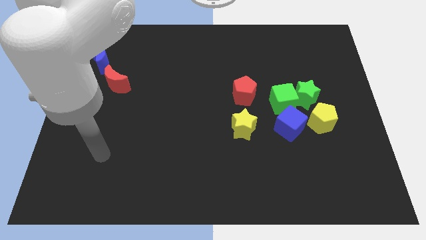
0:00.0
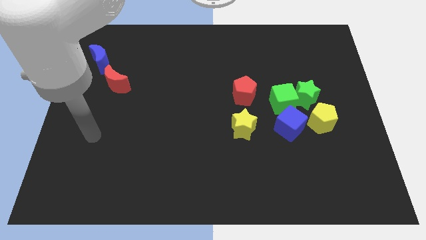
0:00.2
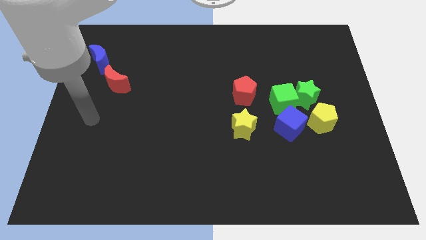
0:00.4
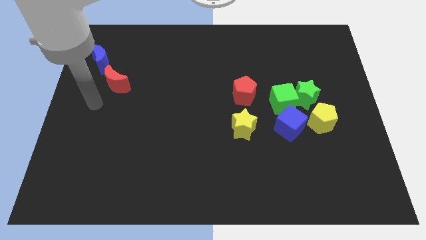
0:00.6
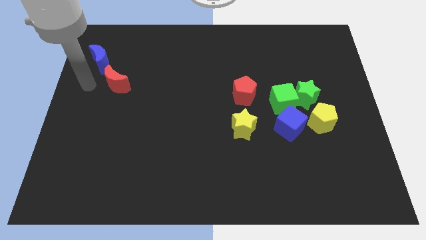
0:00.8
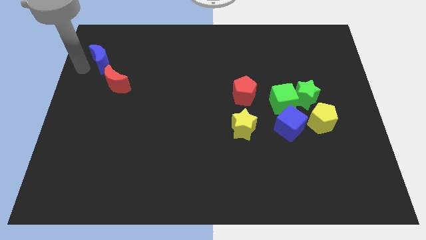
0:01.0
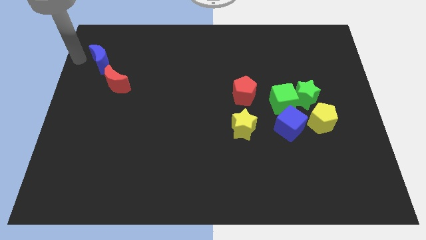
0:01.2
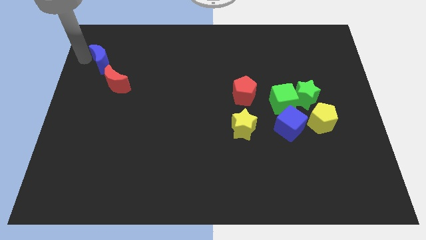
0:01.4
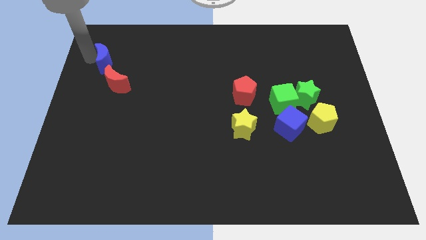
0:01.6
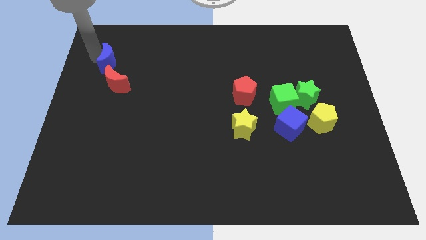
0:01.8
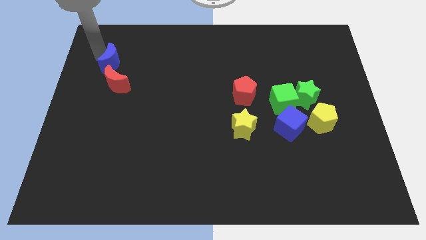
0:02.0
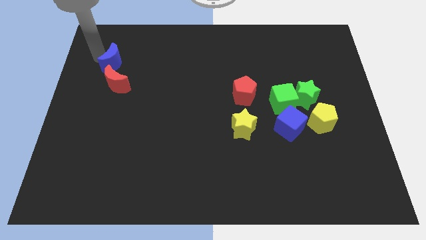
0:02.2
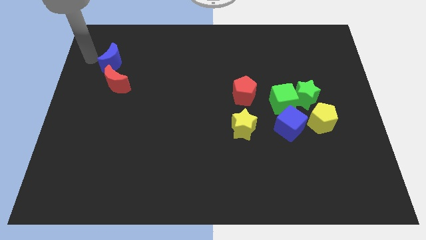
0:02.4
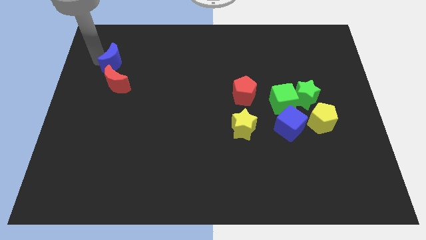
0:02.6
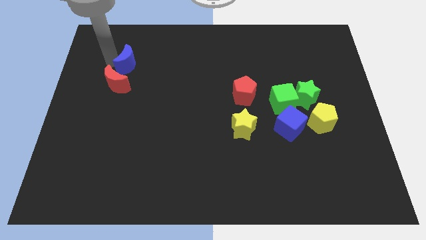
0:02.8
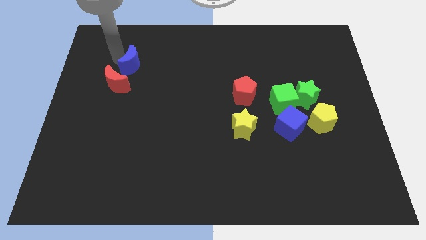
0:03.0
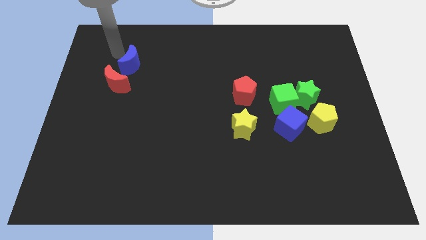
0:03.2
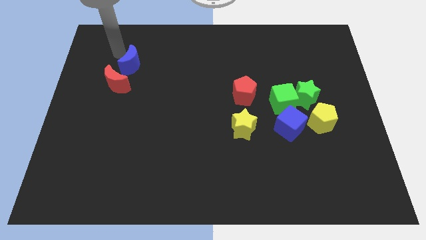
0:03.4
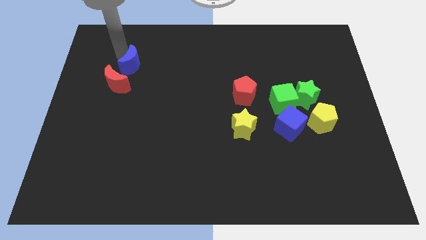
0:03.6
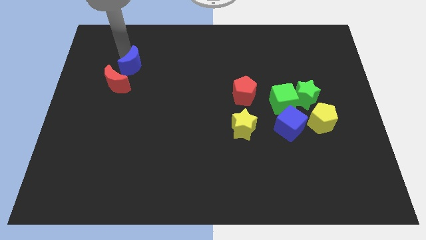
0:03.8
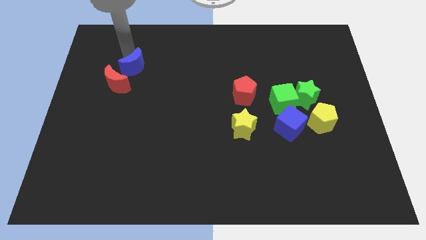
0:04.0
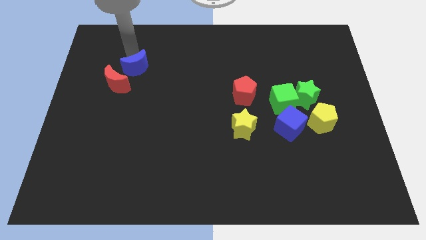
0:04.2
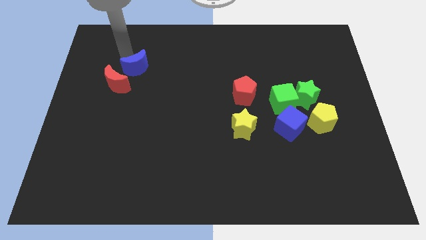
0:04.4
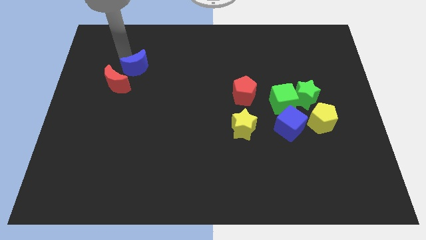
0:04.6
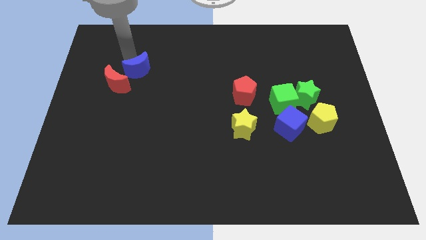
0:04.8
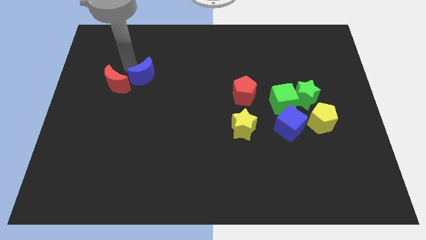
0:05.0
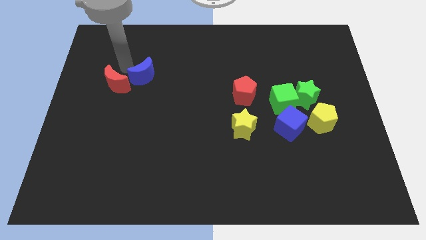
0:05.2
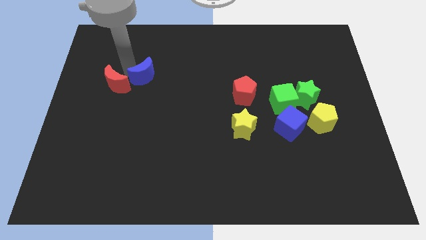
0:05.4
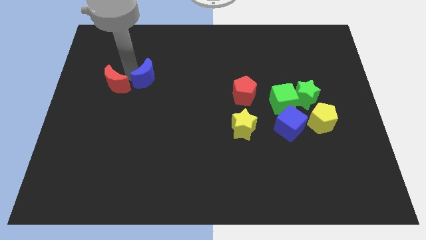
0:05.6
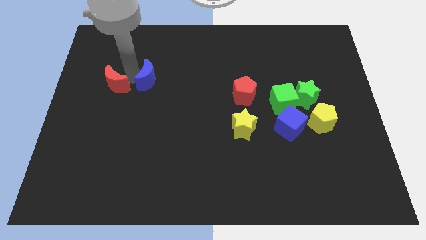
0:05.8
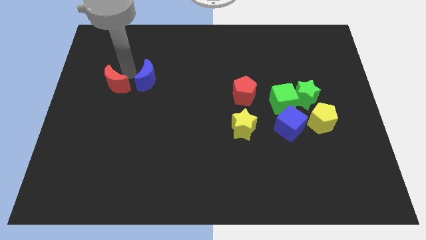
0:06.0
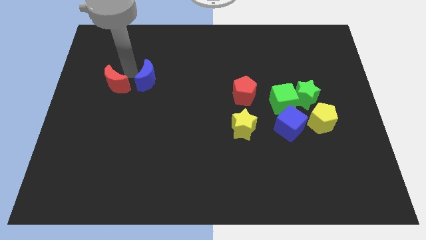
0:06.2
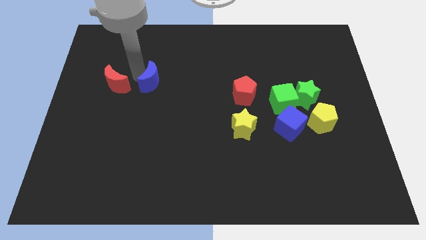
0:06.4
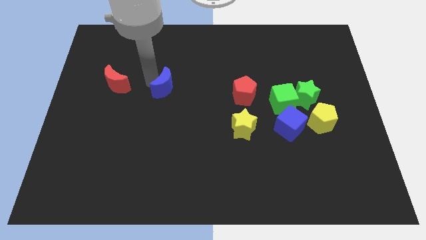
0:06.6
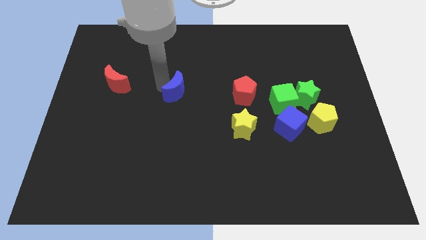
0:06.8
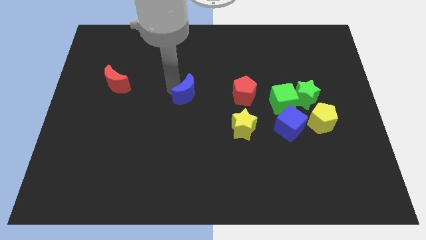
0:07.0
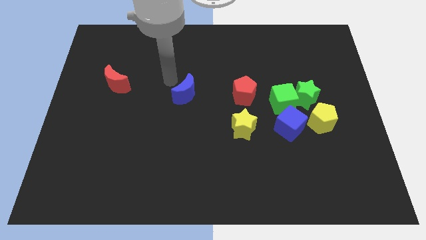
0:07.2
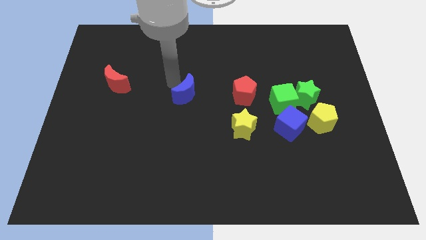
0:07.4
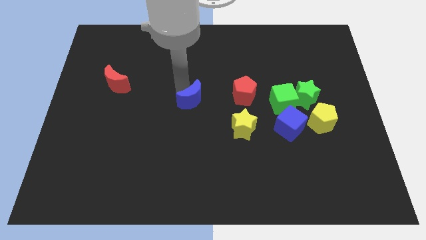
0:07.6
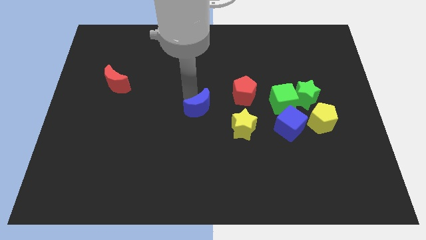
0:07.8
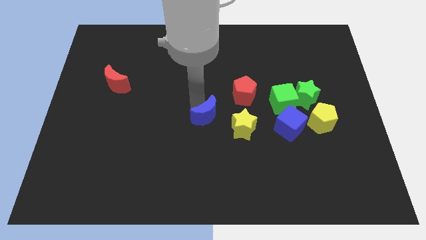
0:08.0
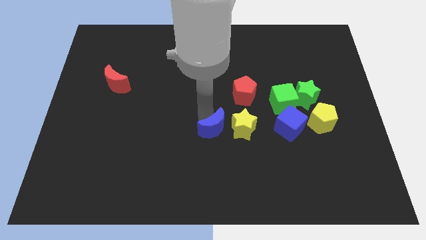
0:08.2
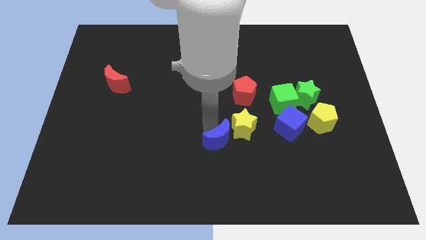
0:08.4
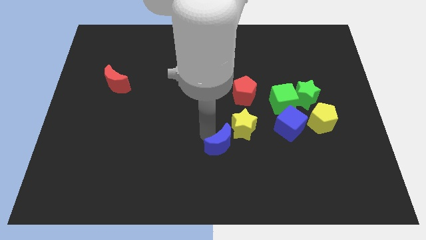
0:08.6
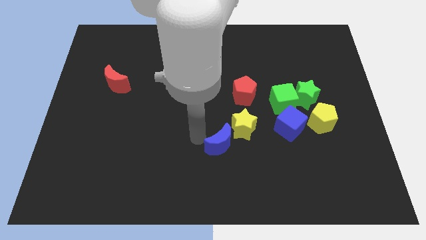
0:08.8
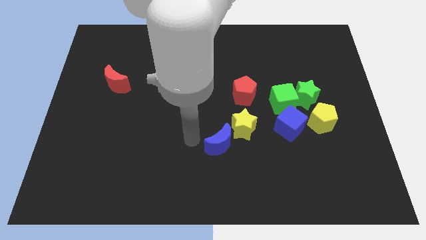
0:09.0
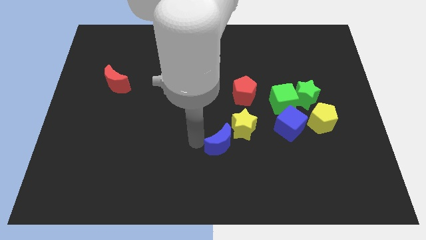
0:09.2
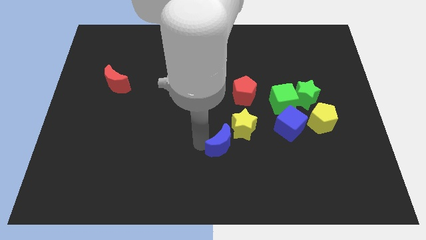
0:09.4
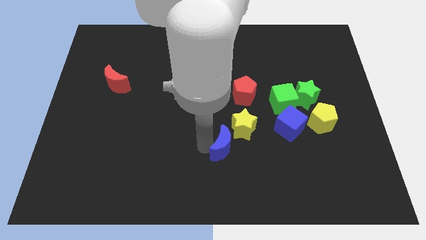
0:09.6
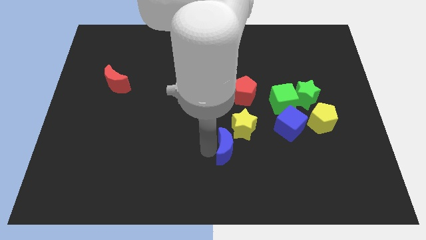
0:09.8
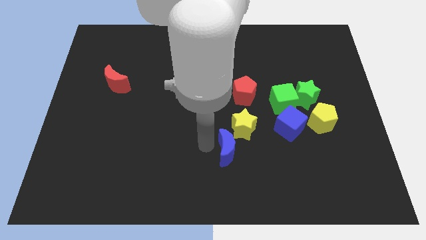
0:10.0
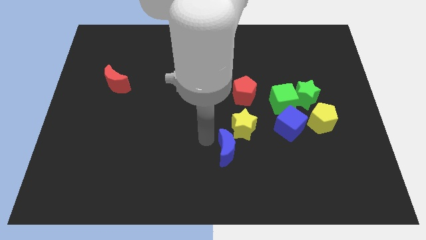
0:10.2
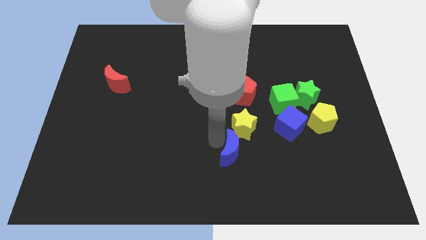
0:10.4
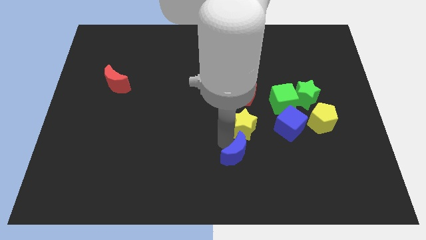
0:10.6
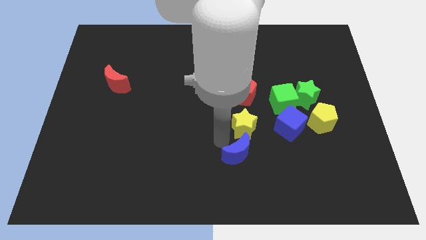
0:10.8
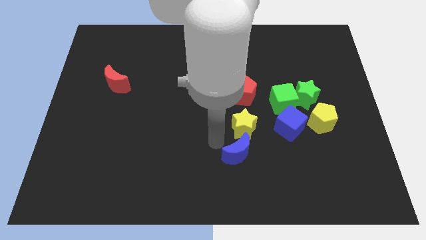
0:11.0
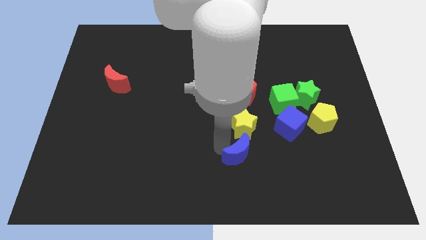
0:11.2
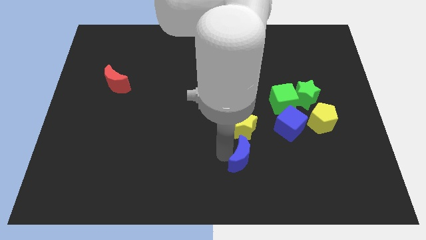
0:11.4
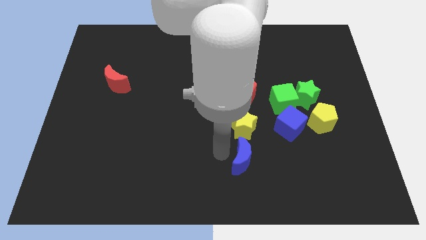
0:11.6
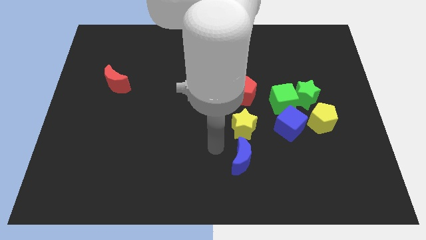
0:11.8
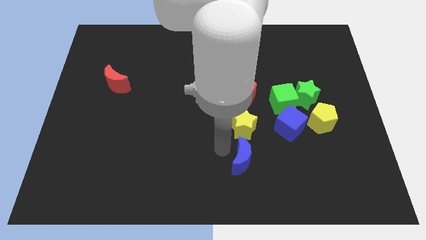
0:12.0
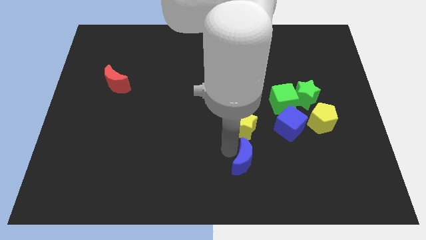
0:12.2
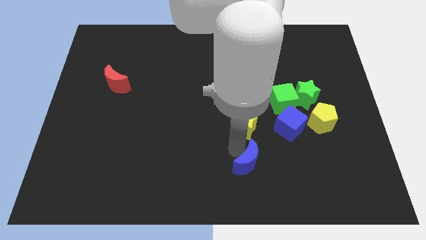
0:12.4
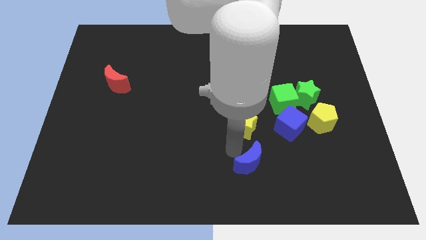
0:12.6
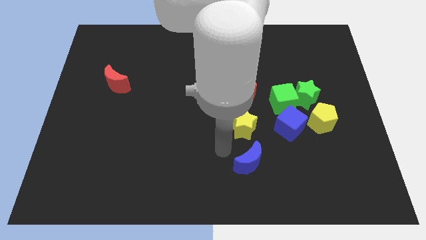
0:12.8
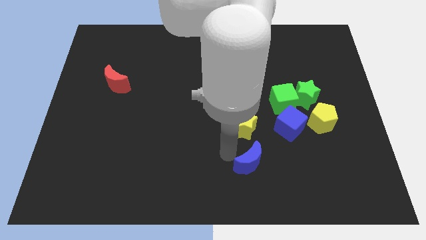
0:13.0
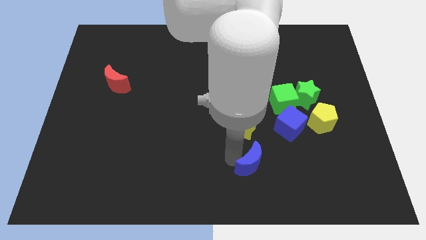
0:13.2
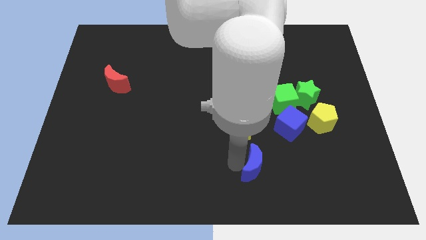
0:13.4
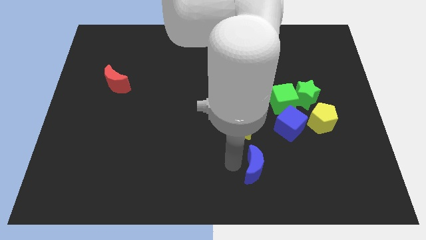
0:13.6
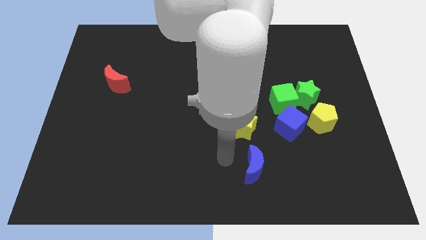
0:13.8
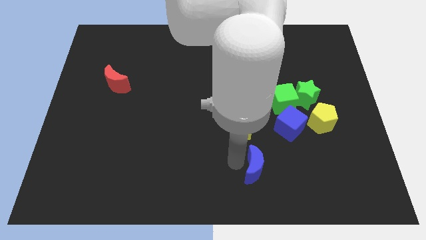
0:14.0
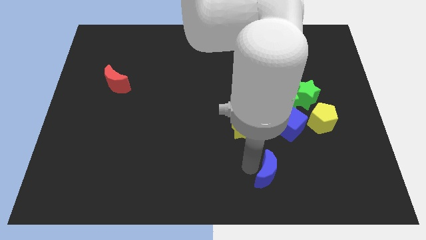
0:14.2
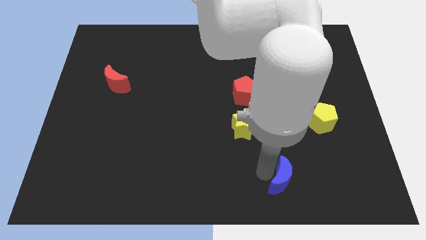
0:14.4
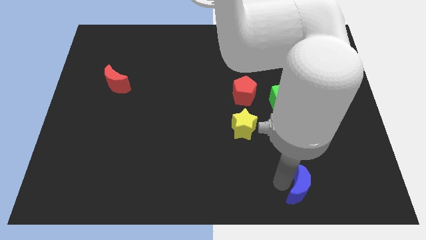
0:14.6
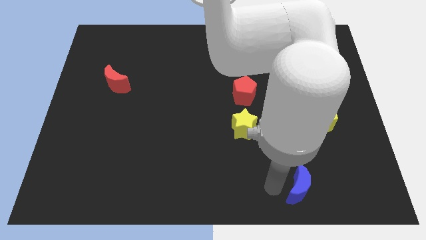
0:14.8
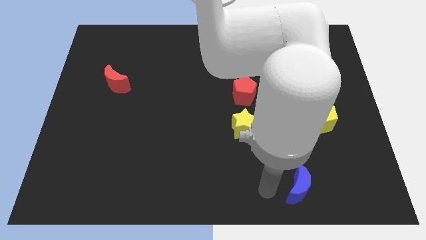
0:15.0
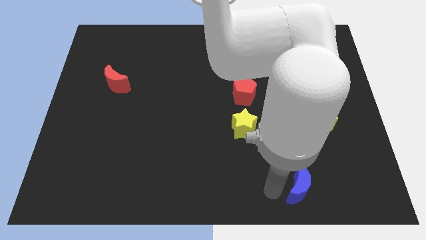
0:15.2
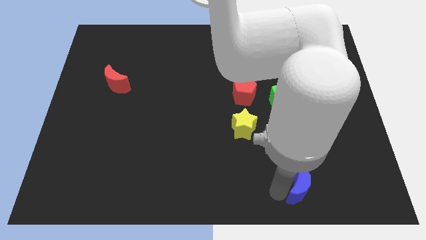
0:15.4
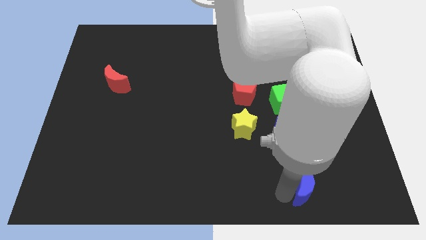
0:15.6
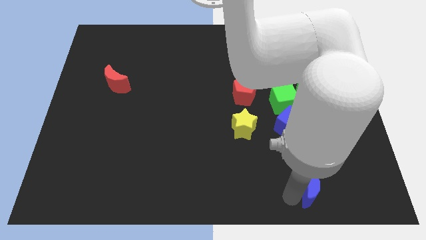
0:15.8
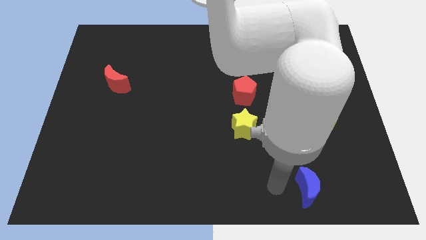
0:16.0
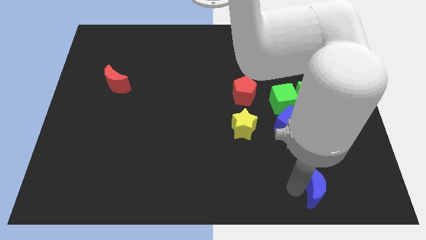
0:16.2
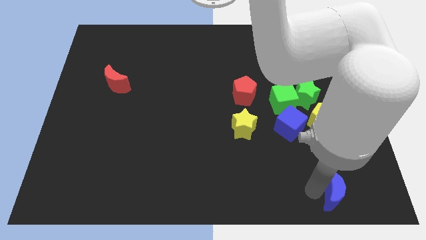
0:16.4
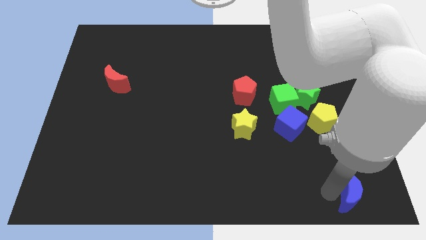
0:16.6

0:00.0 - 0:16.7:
push the blue moon to the bottom right
